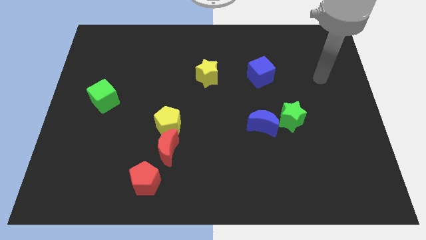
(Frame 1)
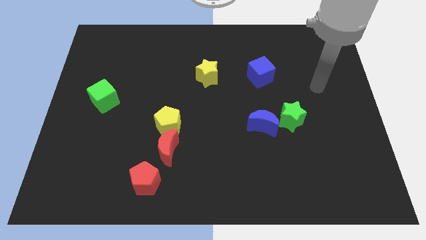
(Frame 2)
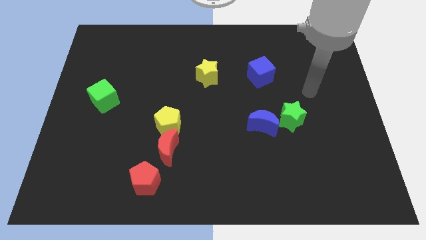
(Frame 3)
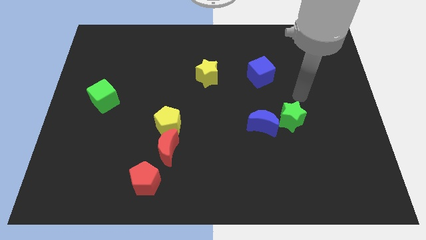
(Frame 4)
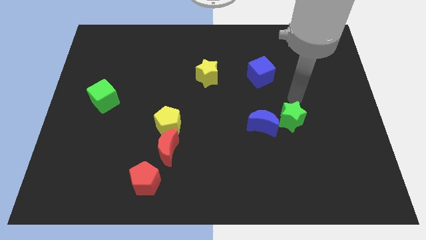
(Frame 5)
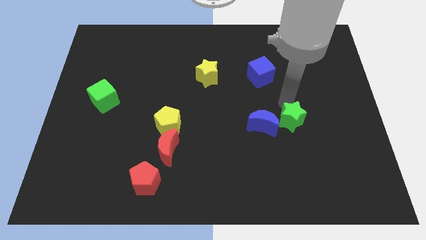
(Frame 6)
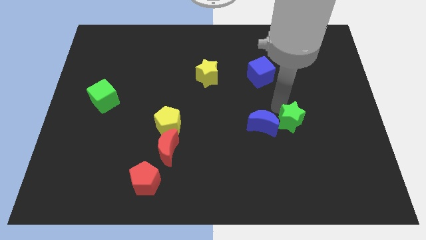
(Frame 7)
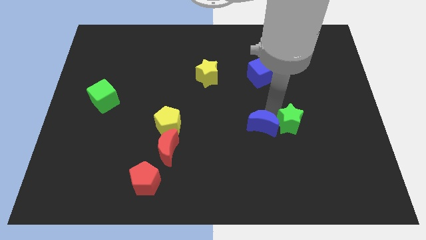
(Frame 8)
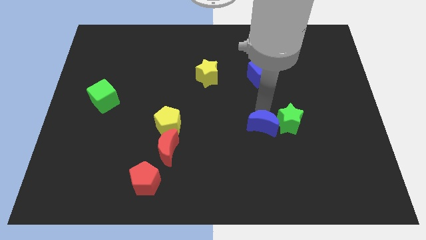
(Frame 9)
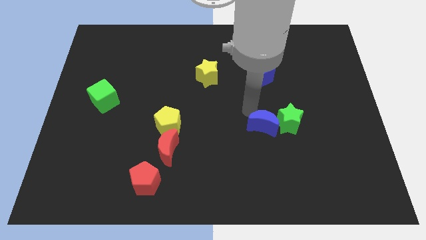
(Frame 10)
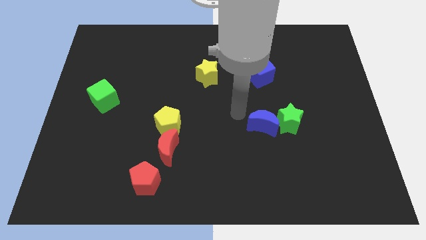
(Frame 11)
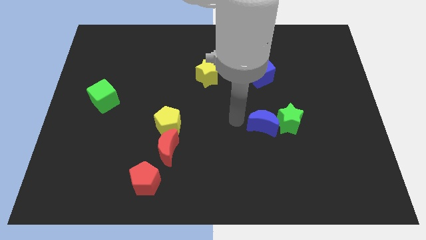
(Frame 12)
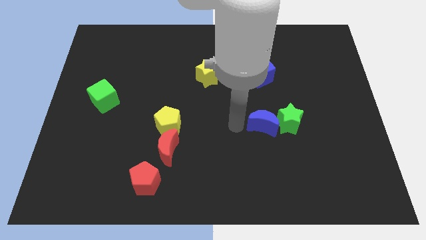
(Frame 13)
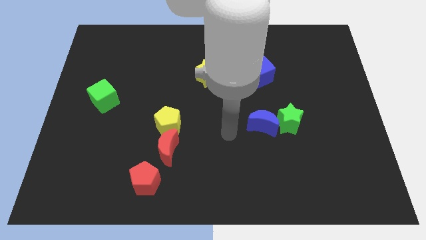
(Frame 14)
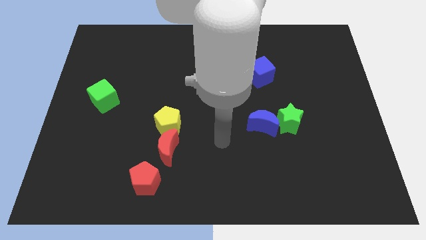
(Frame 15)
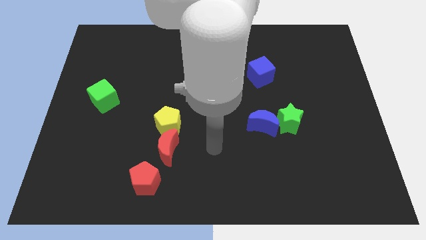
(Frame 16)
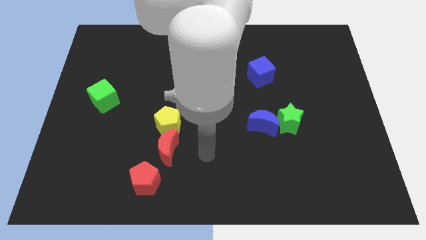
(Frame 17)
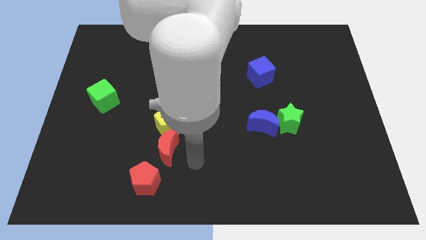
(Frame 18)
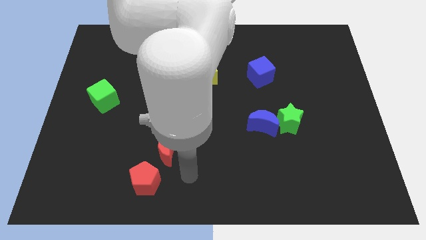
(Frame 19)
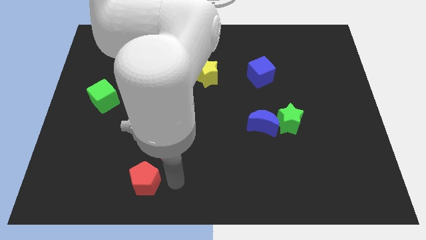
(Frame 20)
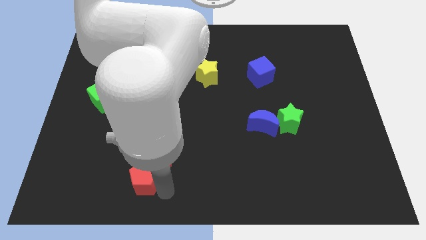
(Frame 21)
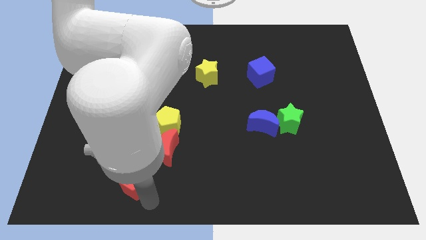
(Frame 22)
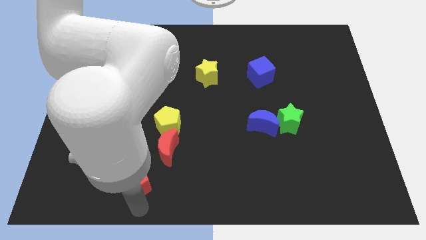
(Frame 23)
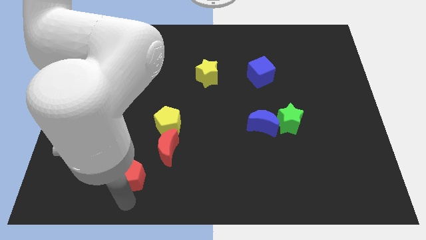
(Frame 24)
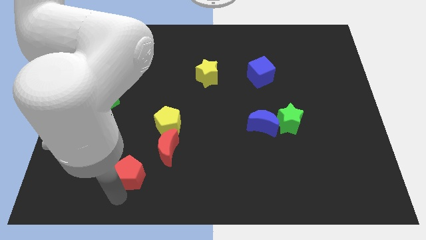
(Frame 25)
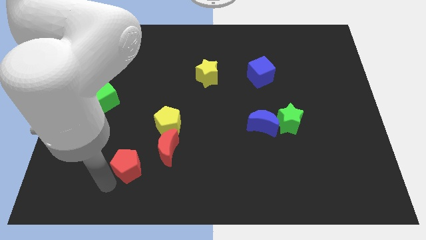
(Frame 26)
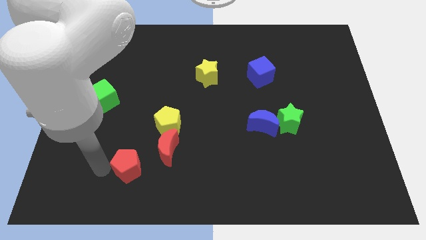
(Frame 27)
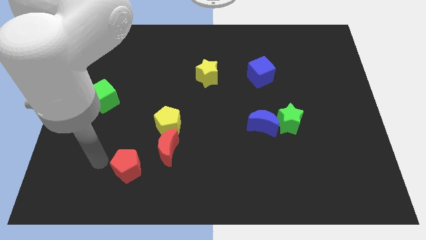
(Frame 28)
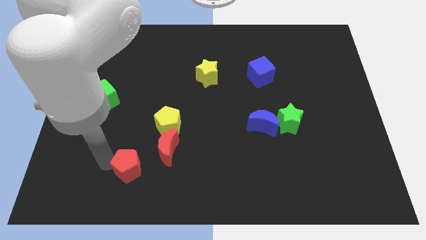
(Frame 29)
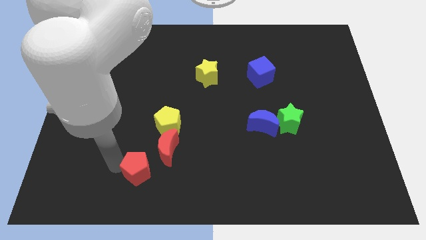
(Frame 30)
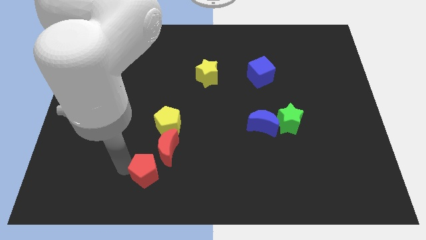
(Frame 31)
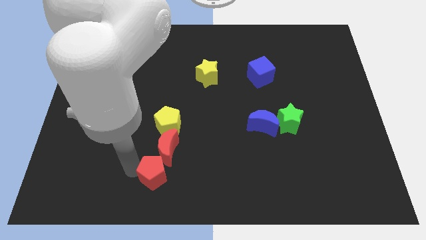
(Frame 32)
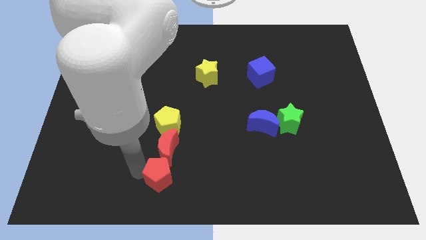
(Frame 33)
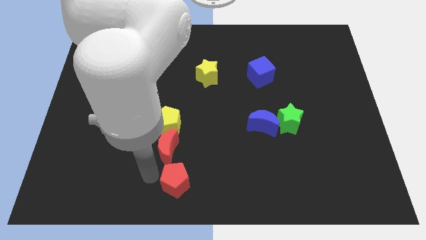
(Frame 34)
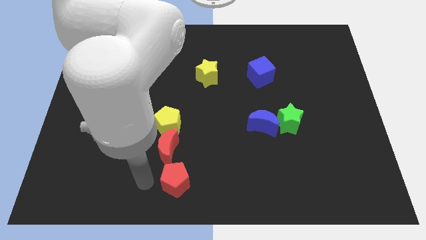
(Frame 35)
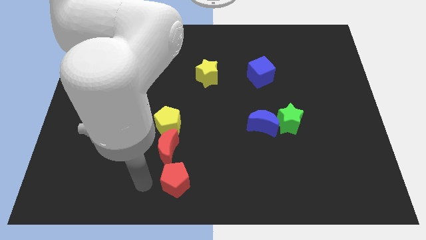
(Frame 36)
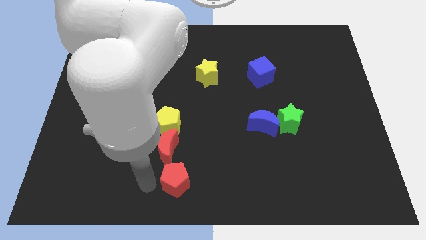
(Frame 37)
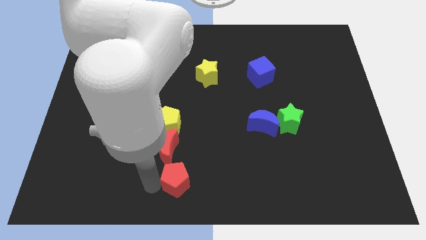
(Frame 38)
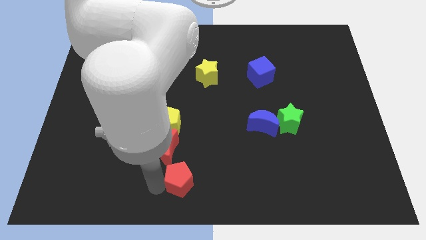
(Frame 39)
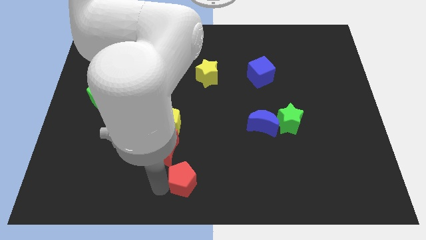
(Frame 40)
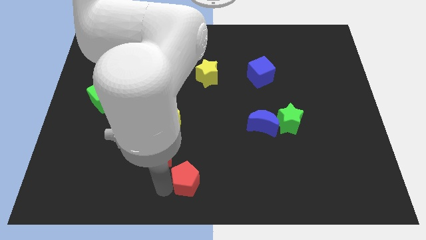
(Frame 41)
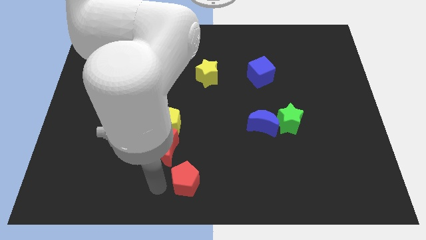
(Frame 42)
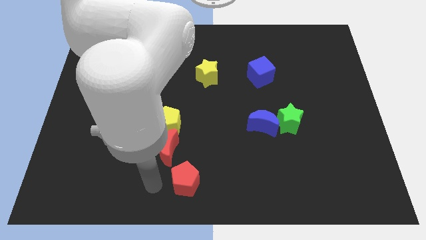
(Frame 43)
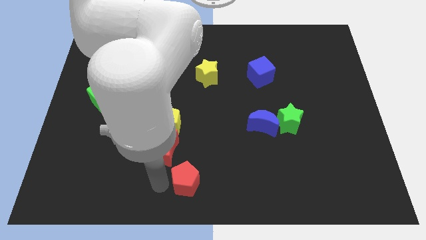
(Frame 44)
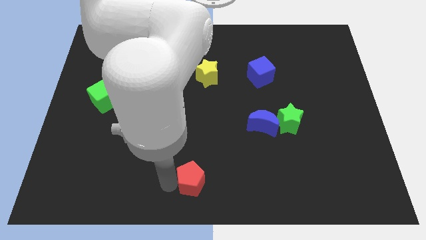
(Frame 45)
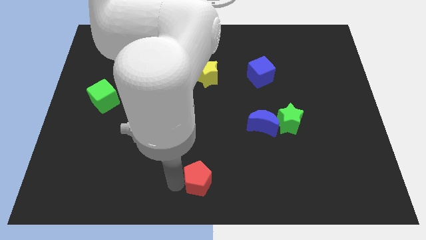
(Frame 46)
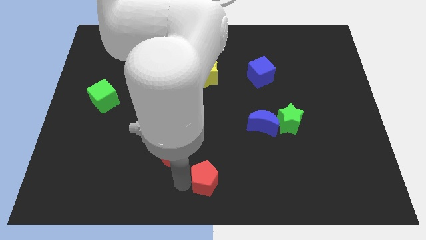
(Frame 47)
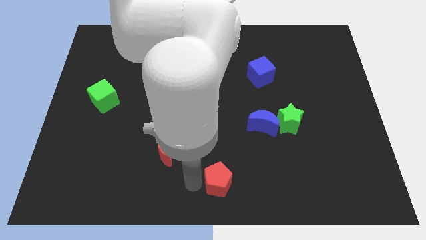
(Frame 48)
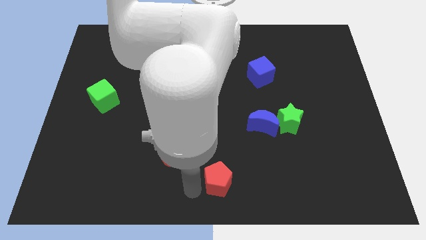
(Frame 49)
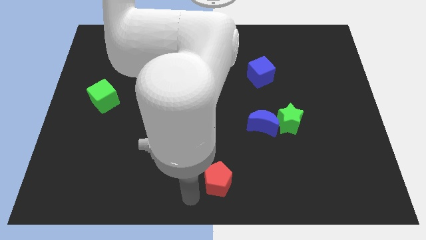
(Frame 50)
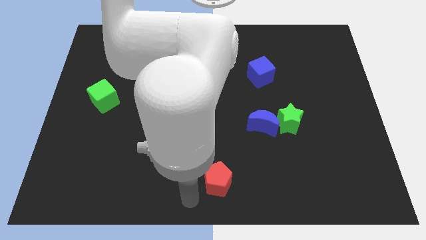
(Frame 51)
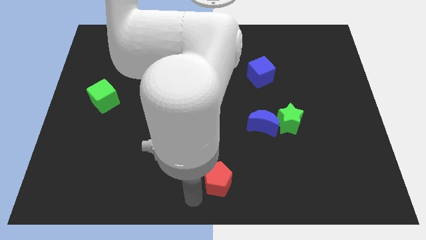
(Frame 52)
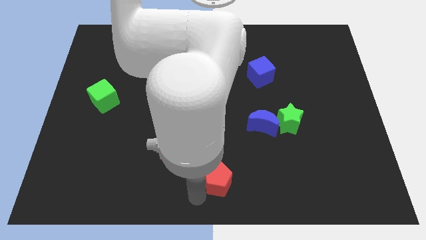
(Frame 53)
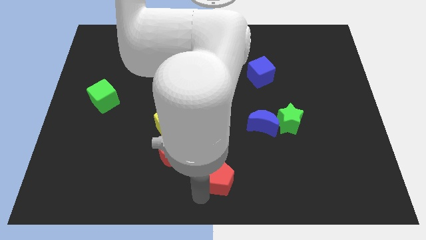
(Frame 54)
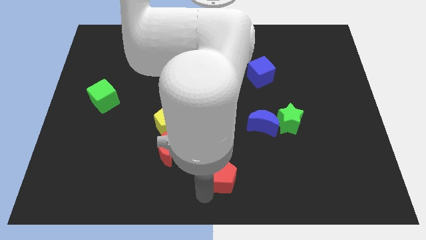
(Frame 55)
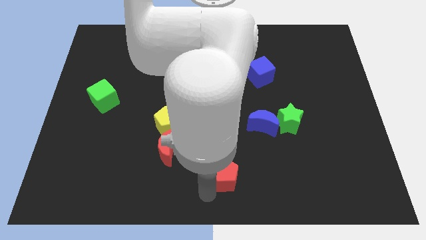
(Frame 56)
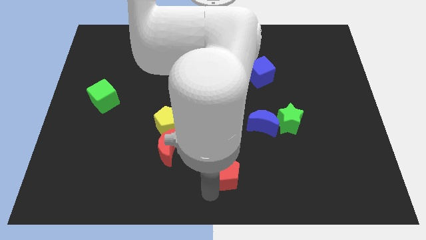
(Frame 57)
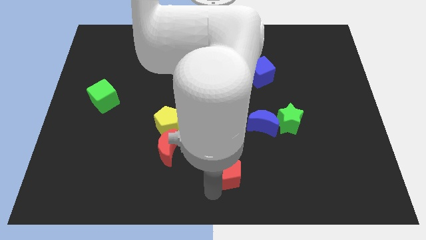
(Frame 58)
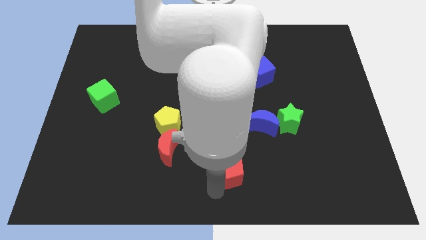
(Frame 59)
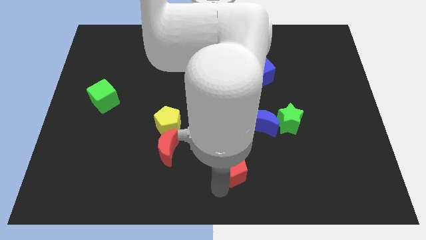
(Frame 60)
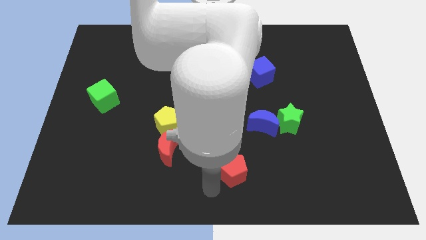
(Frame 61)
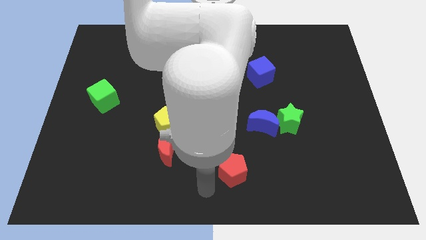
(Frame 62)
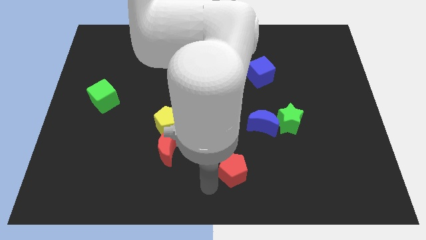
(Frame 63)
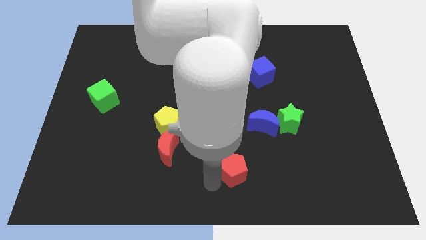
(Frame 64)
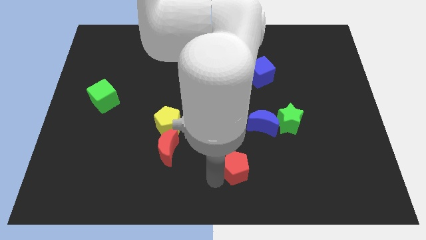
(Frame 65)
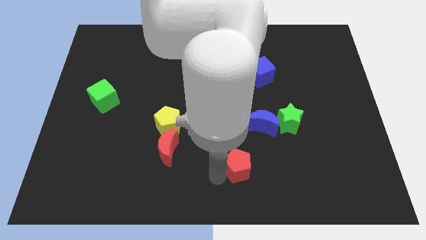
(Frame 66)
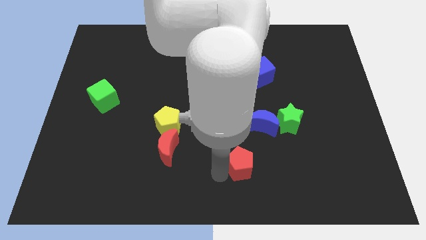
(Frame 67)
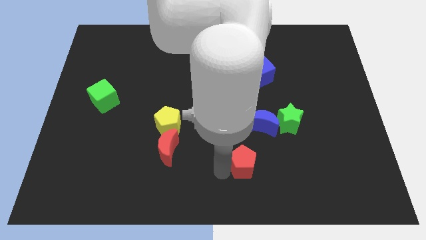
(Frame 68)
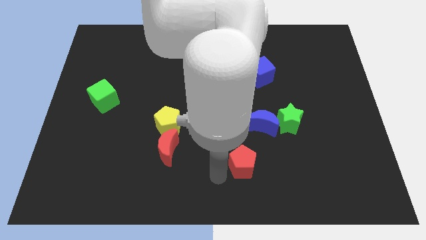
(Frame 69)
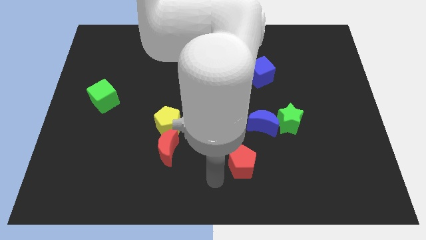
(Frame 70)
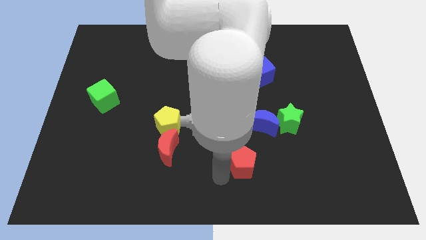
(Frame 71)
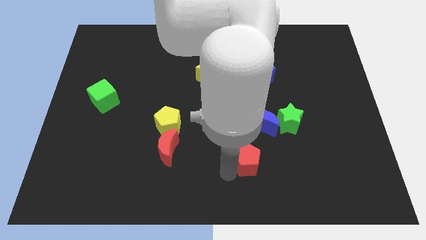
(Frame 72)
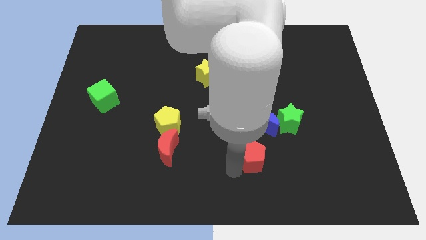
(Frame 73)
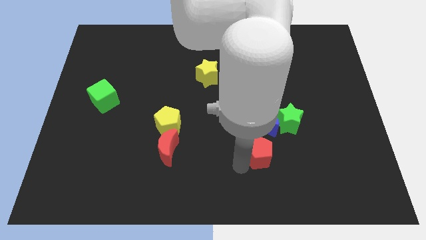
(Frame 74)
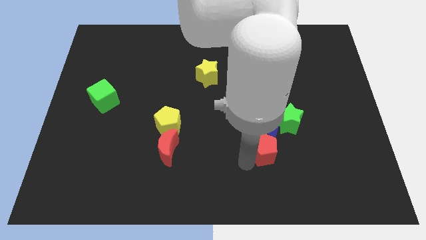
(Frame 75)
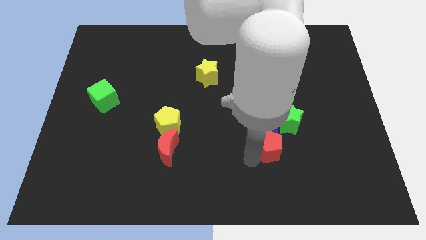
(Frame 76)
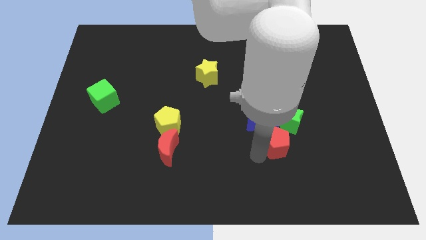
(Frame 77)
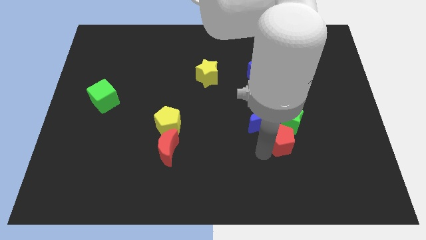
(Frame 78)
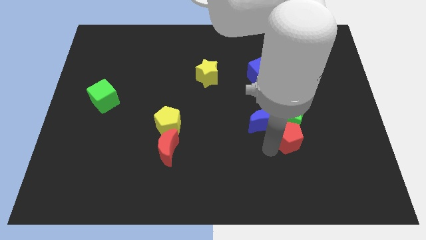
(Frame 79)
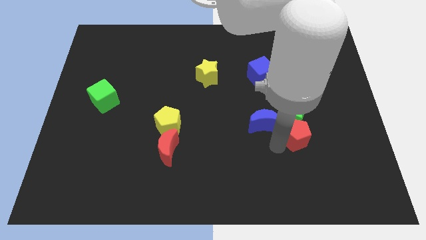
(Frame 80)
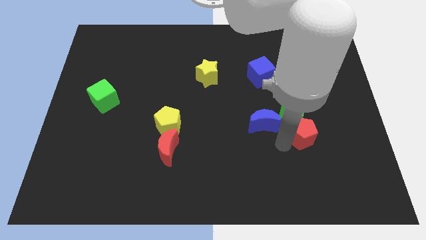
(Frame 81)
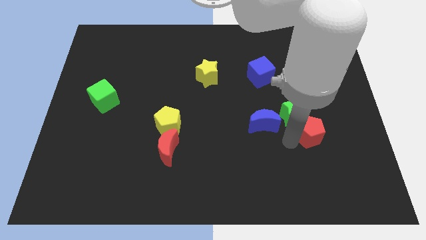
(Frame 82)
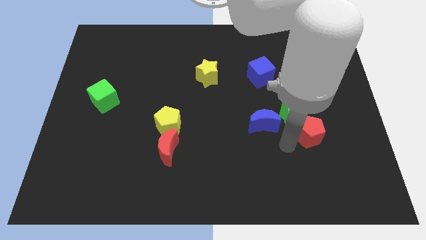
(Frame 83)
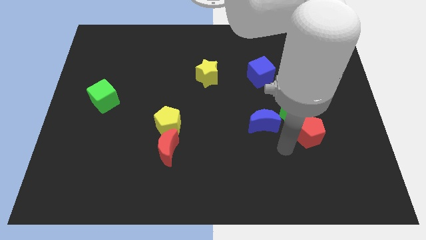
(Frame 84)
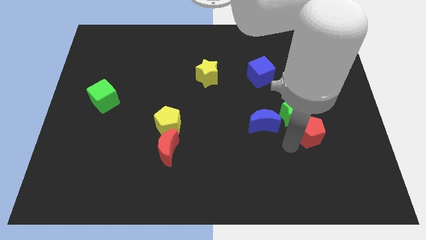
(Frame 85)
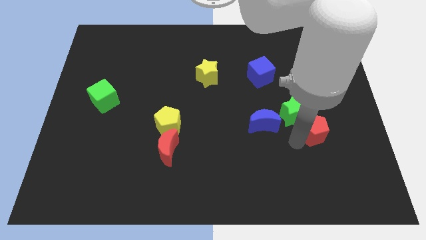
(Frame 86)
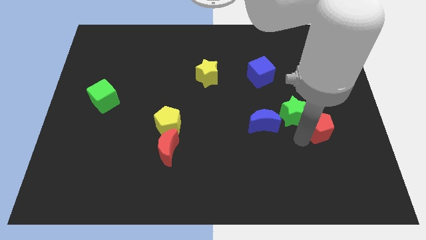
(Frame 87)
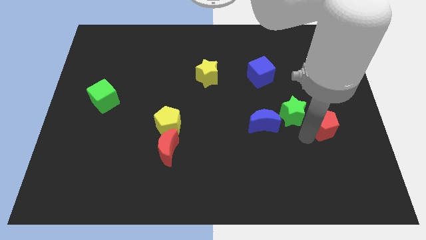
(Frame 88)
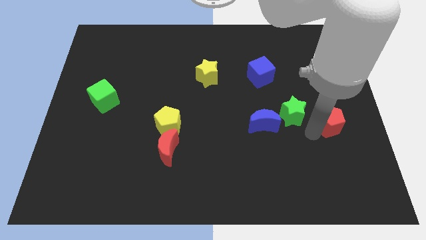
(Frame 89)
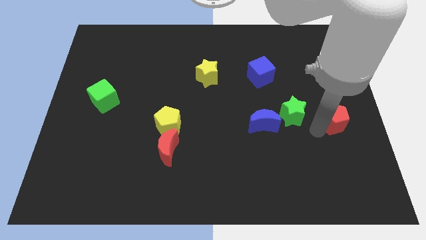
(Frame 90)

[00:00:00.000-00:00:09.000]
move the red pentagon to the right side
